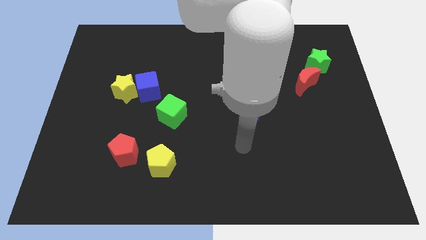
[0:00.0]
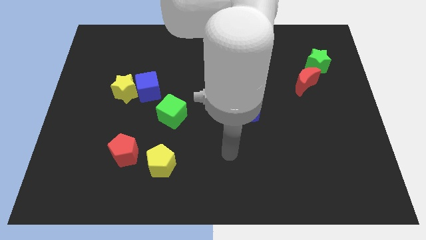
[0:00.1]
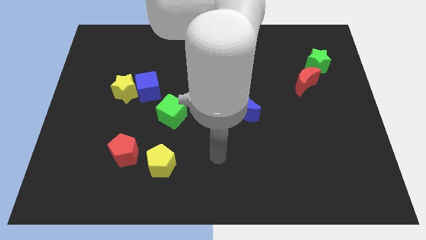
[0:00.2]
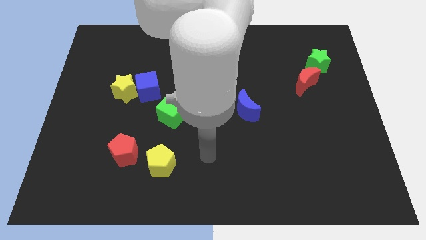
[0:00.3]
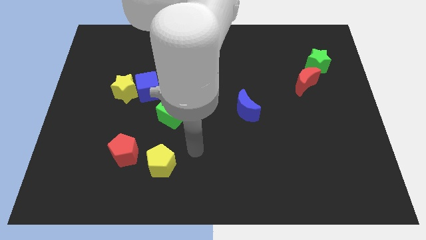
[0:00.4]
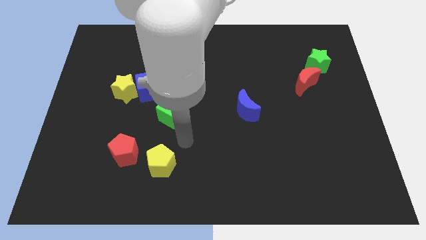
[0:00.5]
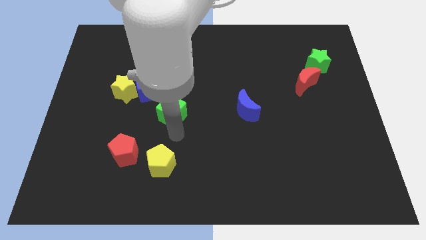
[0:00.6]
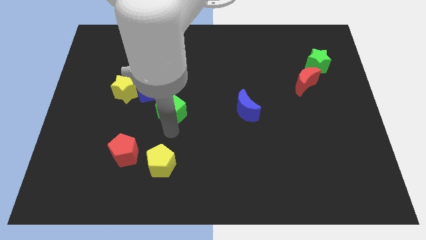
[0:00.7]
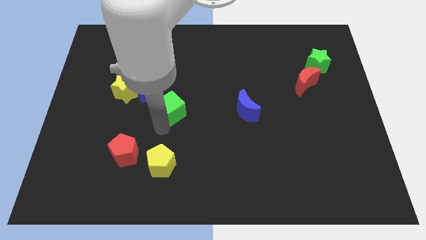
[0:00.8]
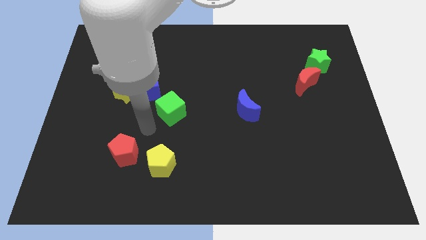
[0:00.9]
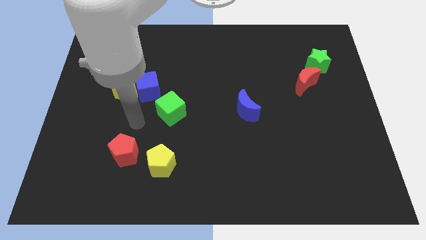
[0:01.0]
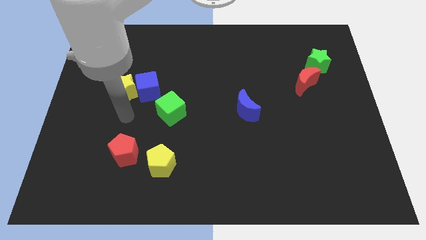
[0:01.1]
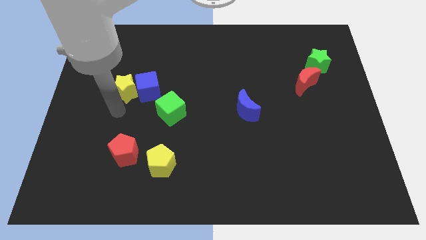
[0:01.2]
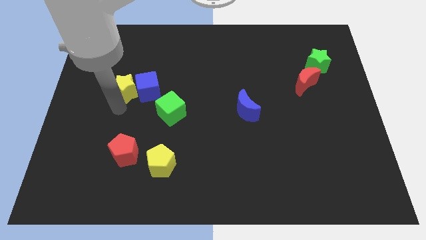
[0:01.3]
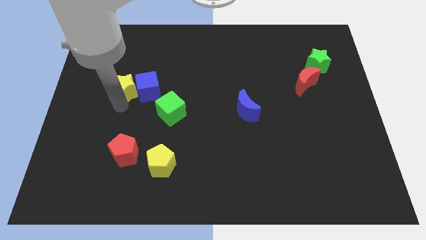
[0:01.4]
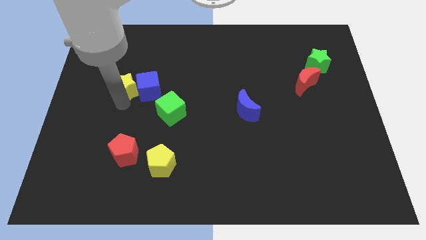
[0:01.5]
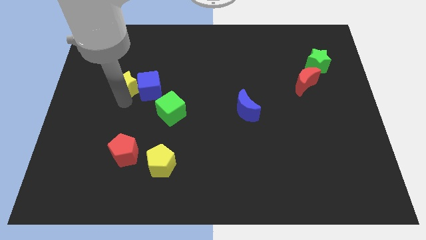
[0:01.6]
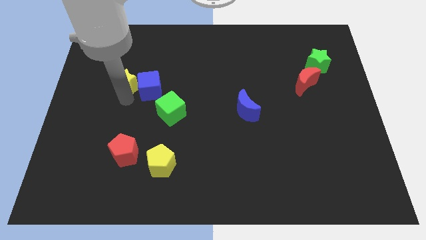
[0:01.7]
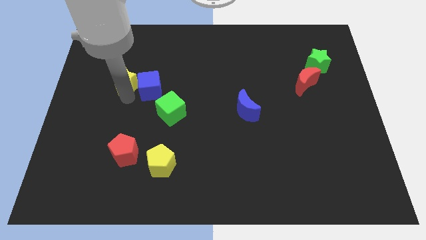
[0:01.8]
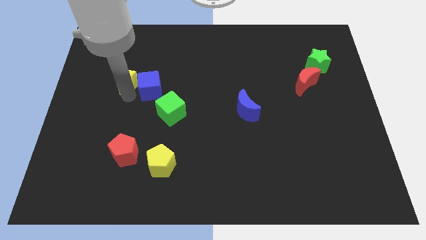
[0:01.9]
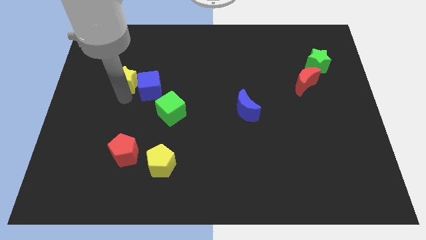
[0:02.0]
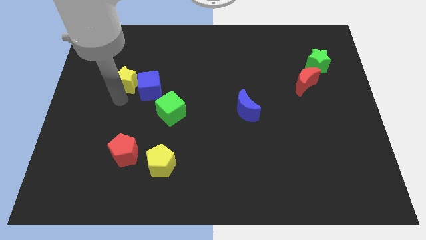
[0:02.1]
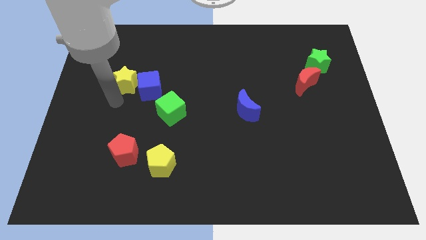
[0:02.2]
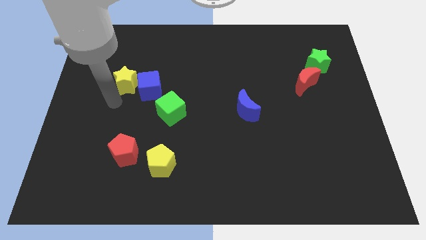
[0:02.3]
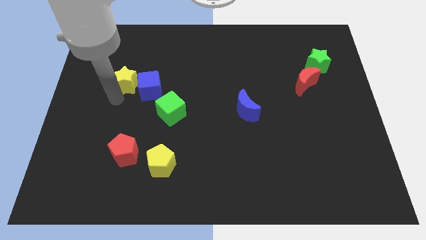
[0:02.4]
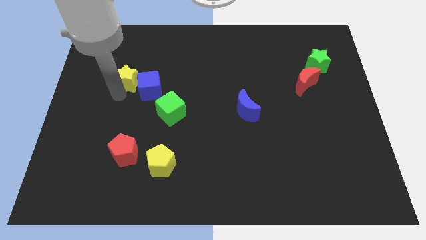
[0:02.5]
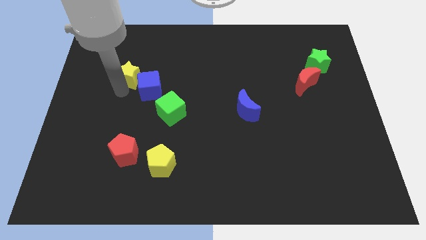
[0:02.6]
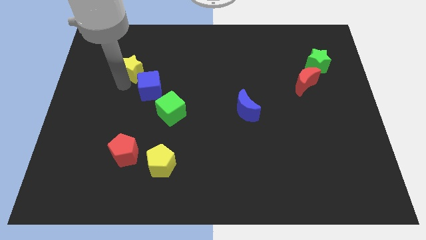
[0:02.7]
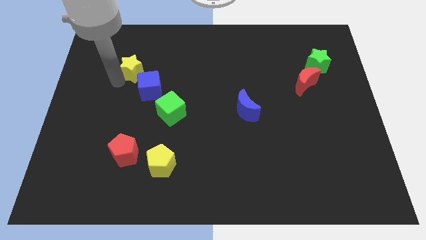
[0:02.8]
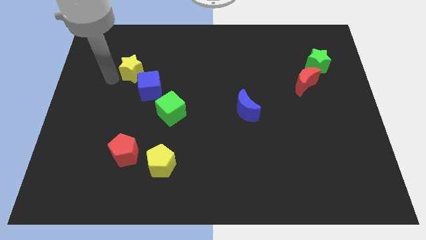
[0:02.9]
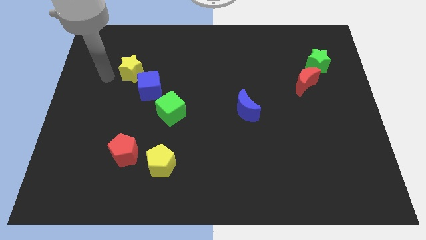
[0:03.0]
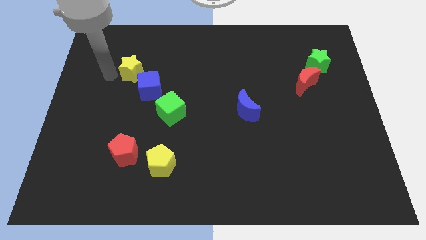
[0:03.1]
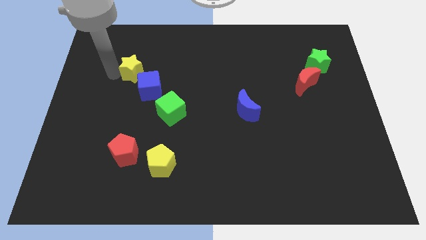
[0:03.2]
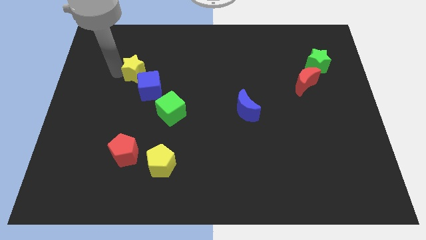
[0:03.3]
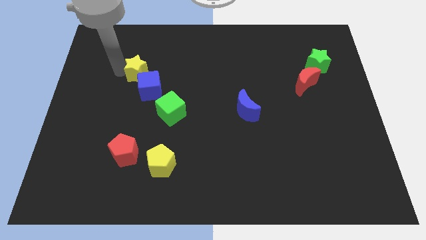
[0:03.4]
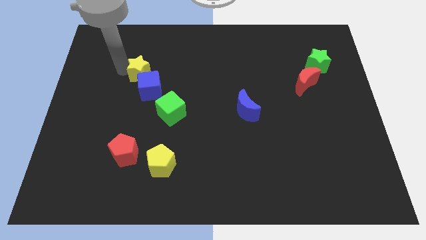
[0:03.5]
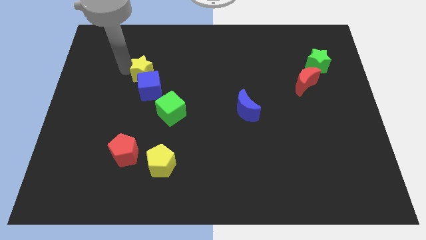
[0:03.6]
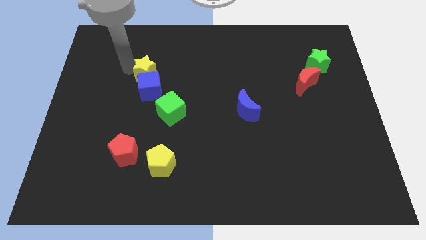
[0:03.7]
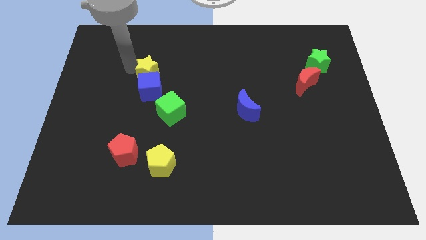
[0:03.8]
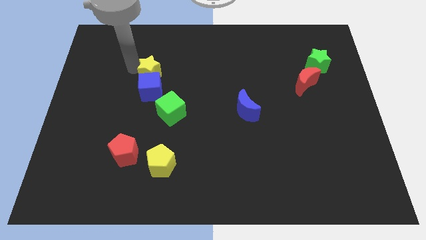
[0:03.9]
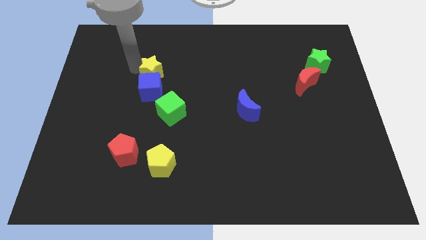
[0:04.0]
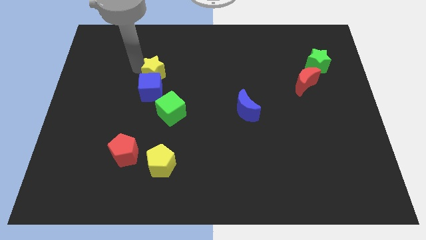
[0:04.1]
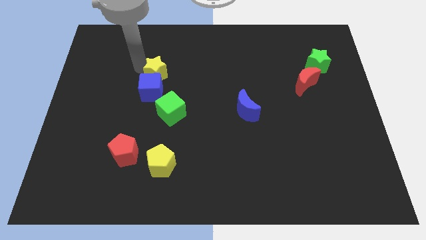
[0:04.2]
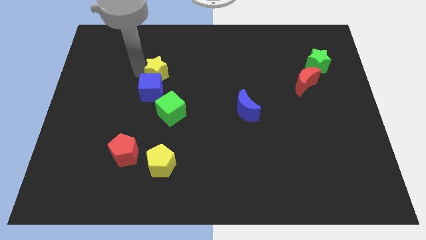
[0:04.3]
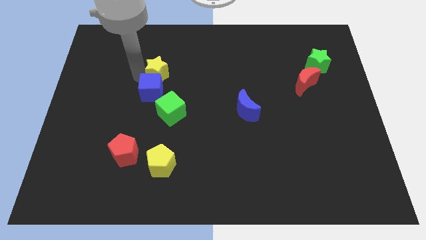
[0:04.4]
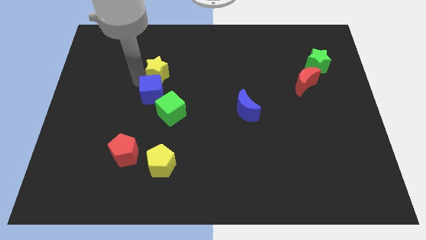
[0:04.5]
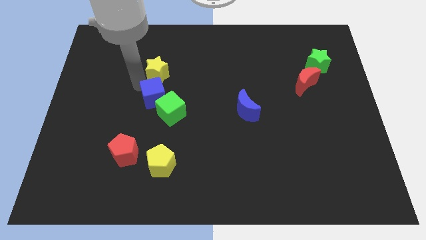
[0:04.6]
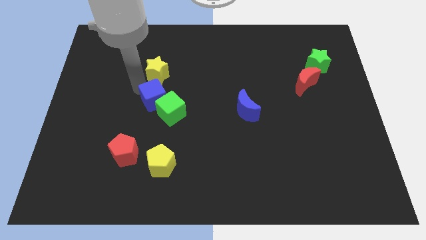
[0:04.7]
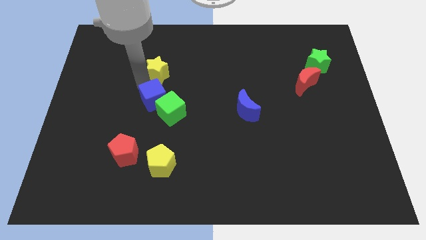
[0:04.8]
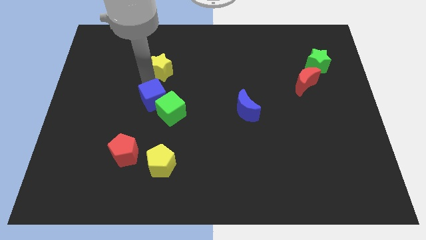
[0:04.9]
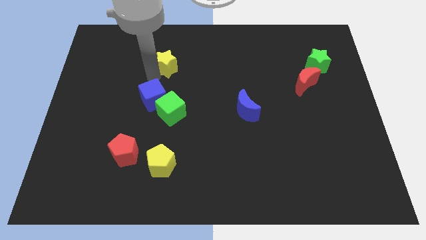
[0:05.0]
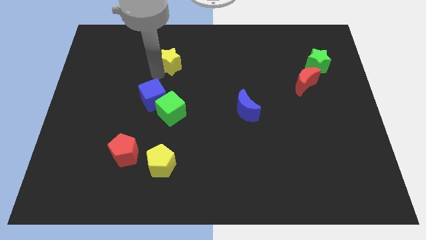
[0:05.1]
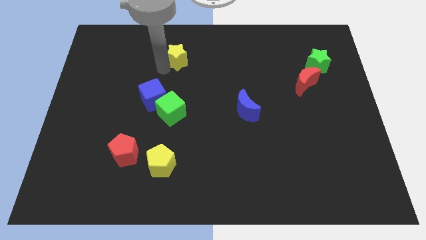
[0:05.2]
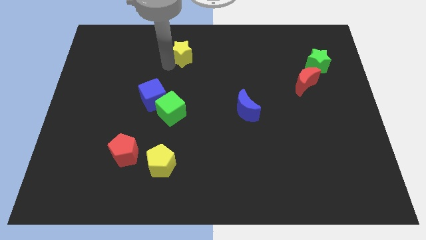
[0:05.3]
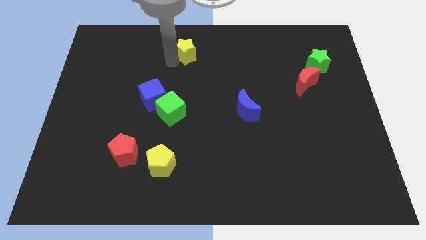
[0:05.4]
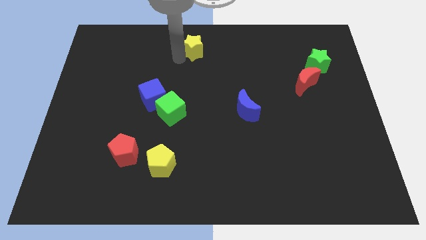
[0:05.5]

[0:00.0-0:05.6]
put the yellow star to the top

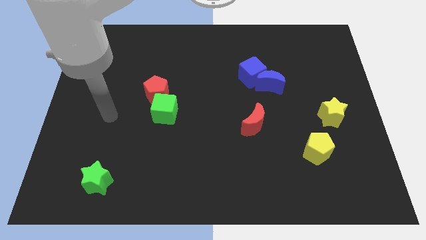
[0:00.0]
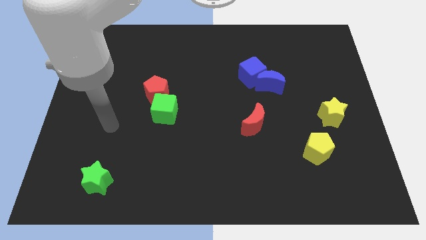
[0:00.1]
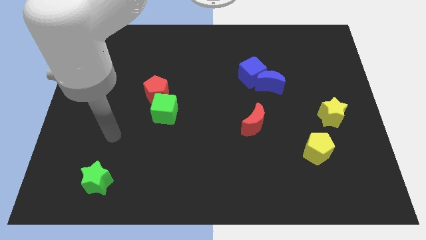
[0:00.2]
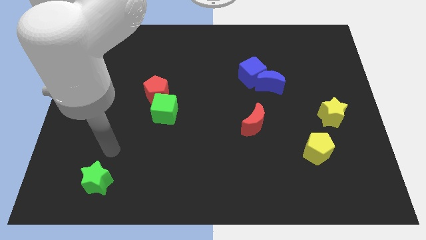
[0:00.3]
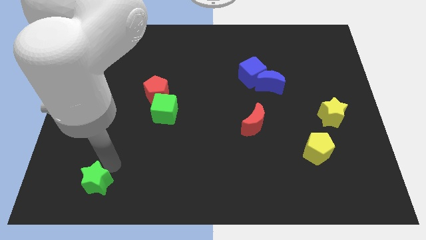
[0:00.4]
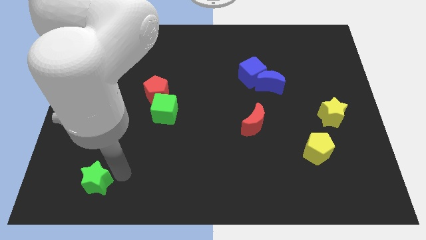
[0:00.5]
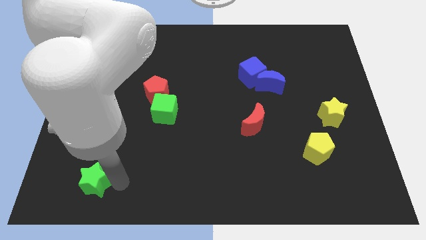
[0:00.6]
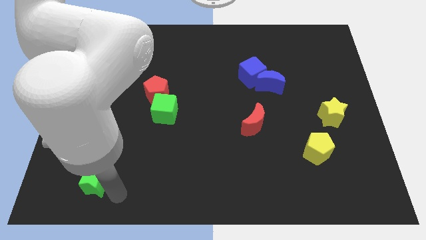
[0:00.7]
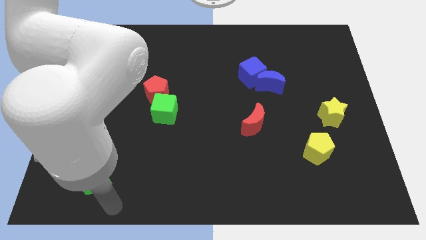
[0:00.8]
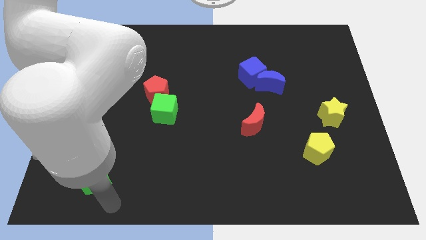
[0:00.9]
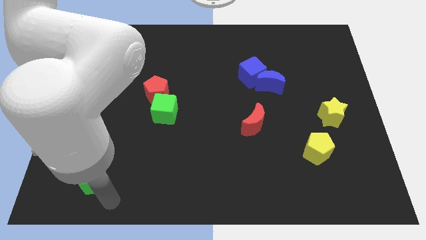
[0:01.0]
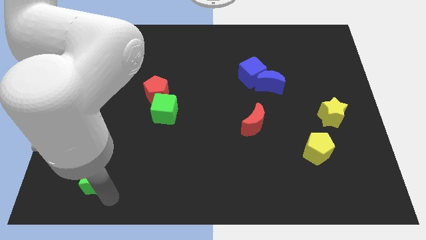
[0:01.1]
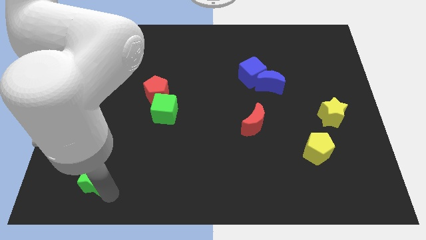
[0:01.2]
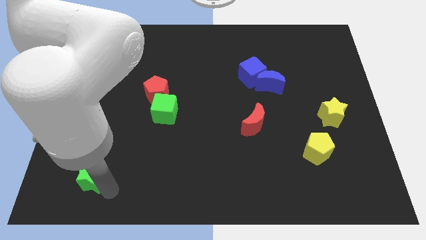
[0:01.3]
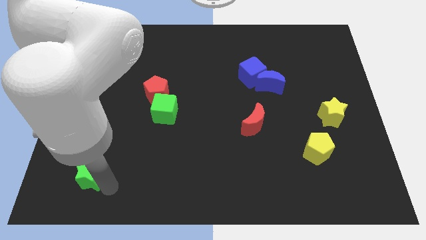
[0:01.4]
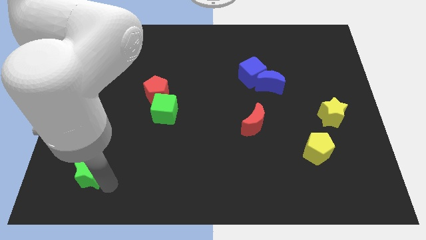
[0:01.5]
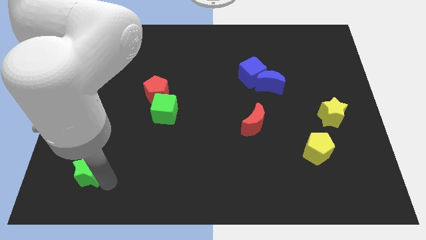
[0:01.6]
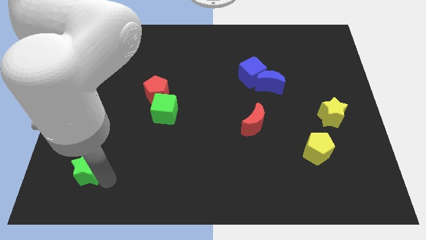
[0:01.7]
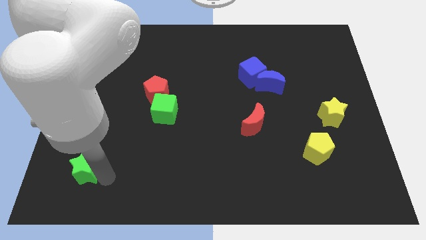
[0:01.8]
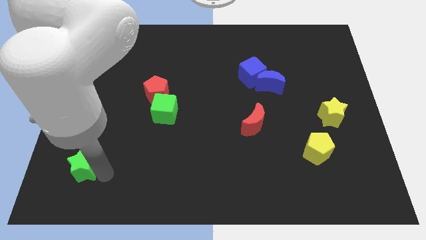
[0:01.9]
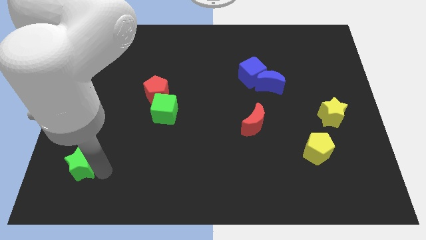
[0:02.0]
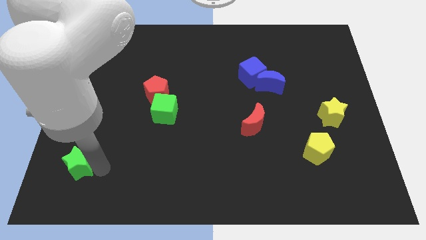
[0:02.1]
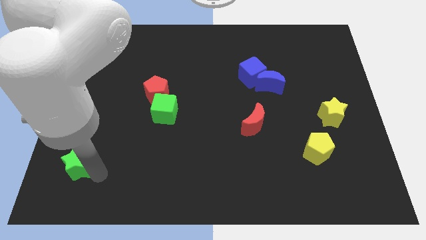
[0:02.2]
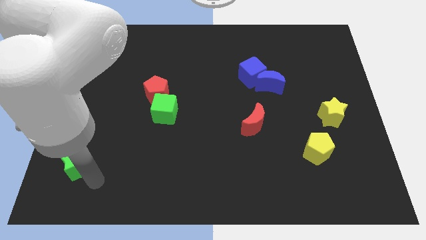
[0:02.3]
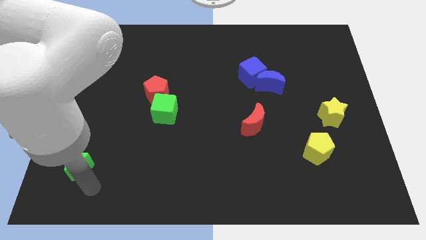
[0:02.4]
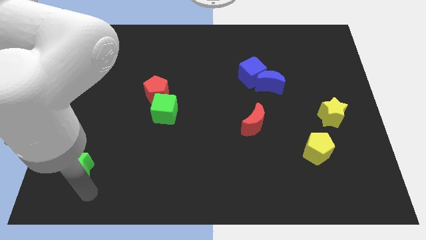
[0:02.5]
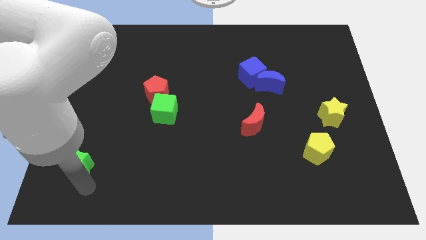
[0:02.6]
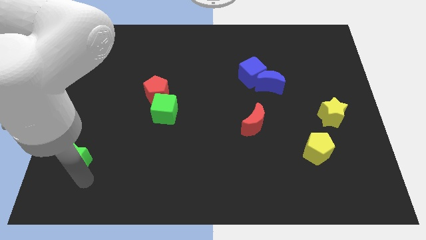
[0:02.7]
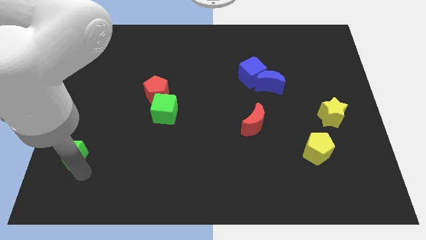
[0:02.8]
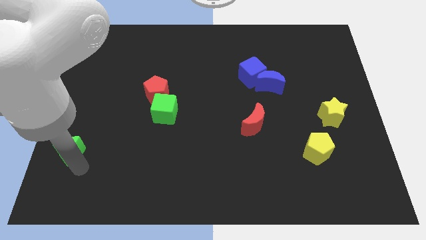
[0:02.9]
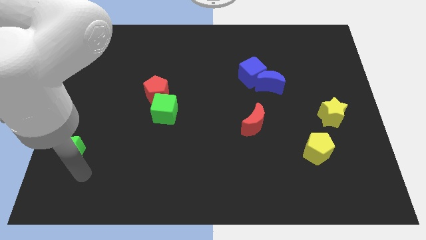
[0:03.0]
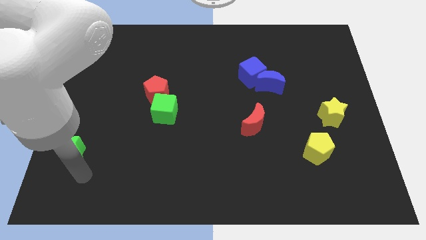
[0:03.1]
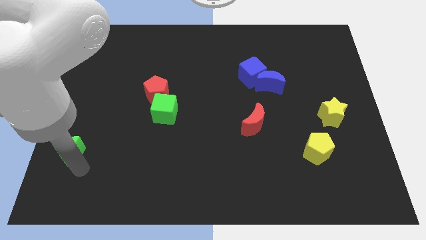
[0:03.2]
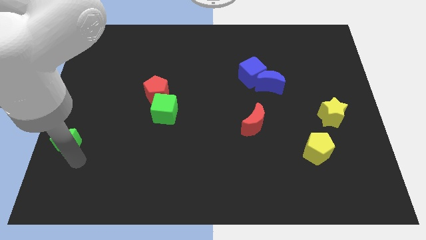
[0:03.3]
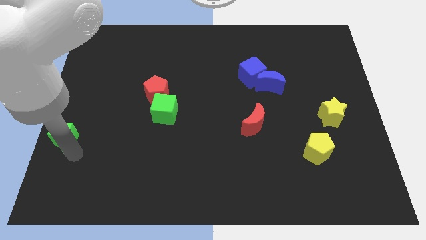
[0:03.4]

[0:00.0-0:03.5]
move the green star to the left side of the board
